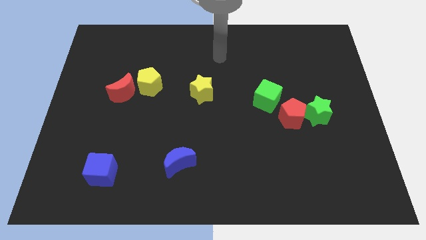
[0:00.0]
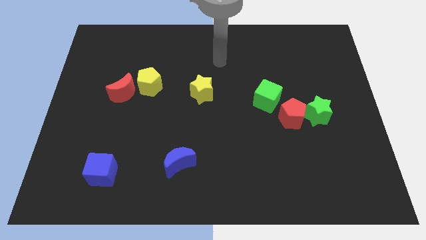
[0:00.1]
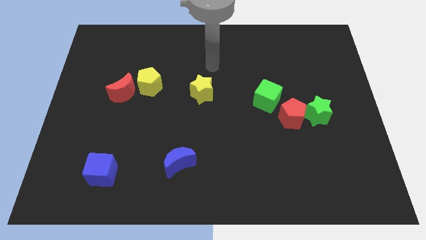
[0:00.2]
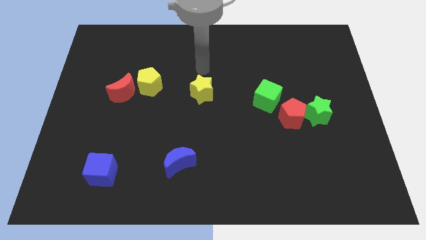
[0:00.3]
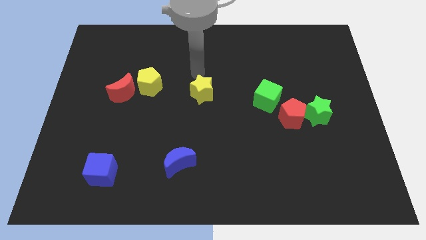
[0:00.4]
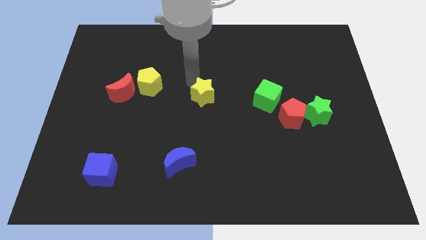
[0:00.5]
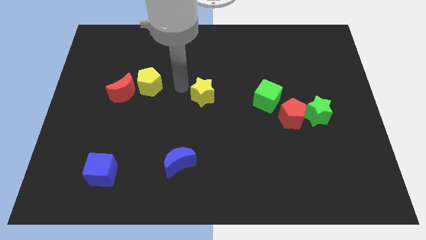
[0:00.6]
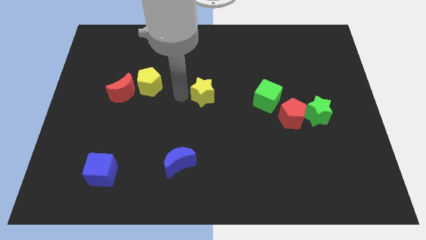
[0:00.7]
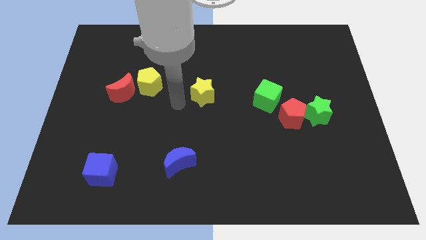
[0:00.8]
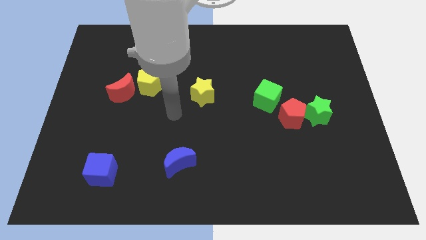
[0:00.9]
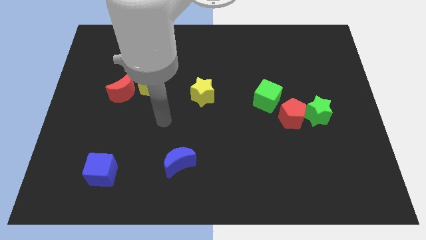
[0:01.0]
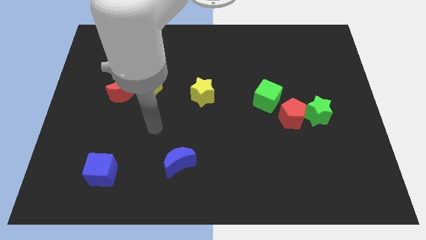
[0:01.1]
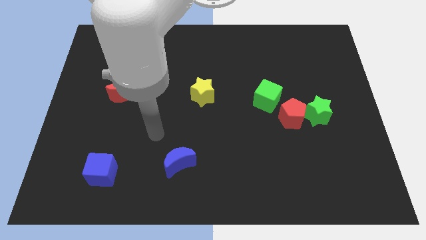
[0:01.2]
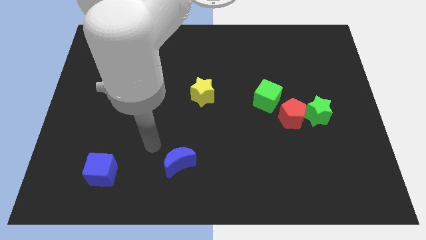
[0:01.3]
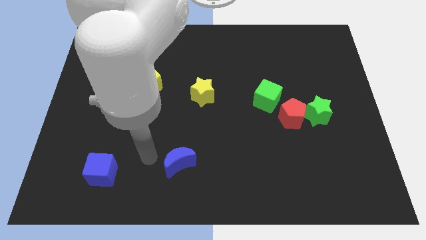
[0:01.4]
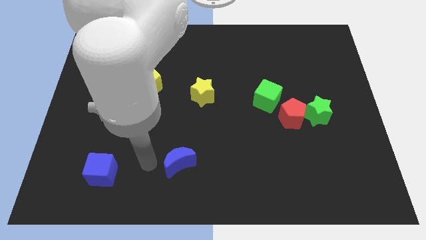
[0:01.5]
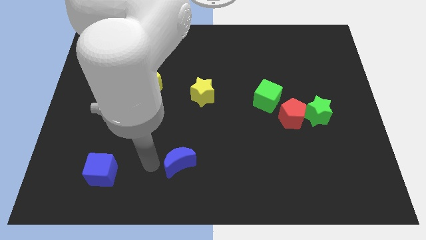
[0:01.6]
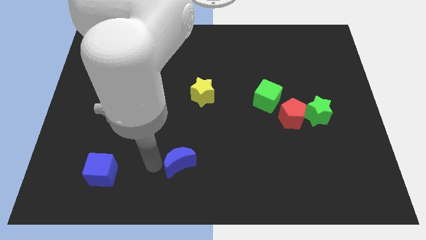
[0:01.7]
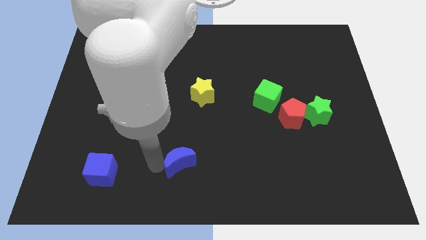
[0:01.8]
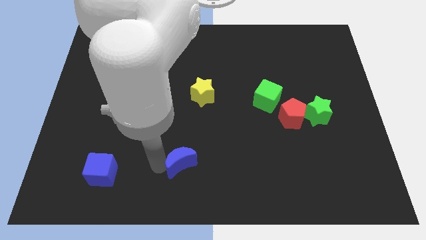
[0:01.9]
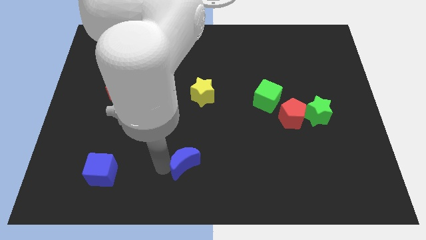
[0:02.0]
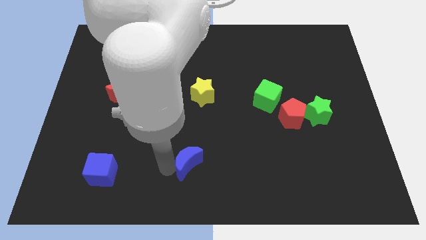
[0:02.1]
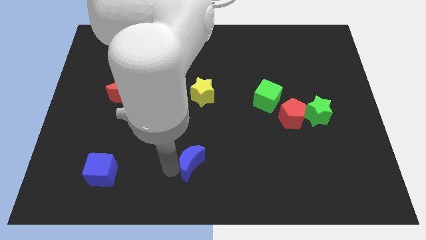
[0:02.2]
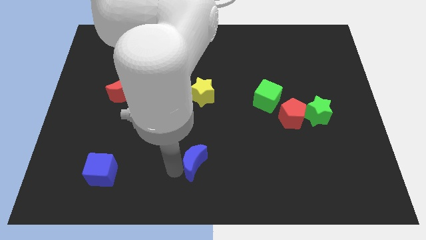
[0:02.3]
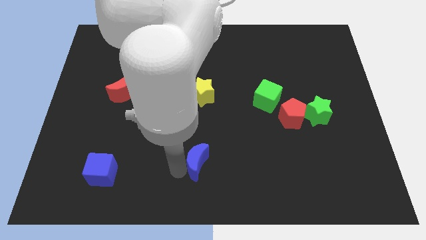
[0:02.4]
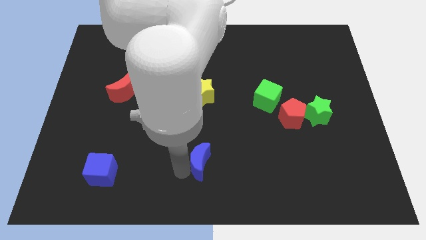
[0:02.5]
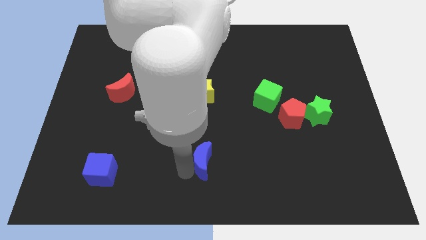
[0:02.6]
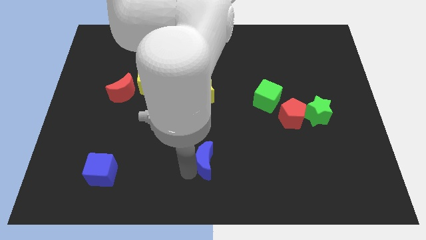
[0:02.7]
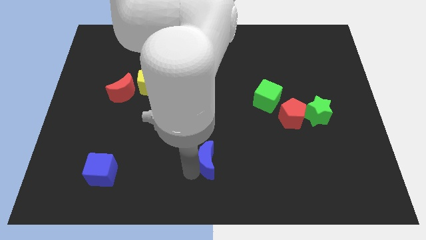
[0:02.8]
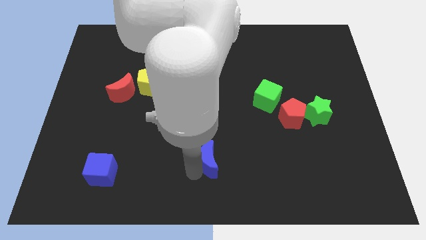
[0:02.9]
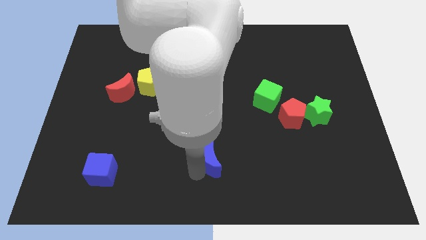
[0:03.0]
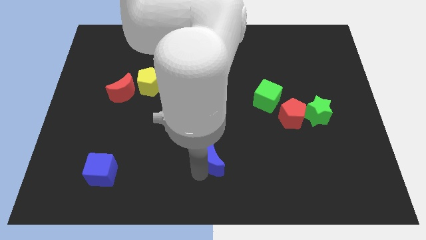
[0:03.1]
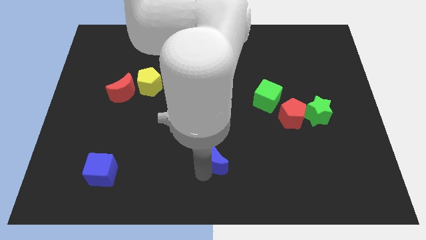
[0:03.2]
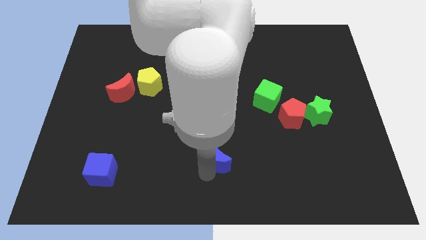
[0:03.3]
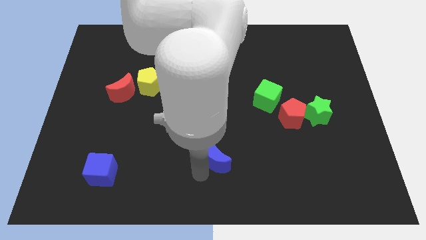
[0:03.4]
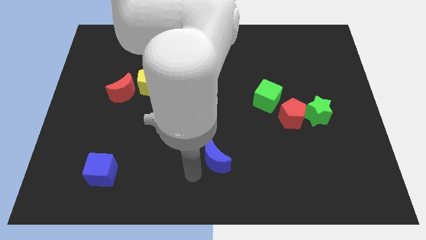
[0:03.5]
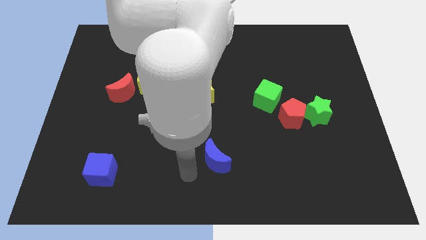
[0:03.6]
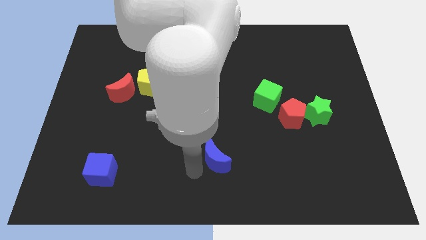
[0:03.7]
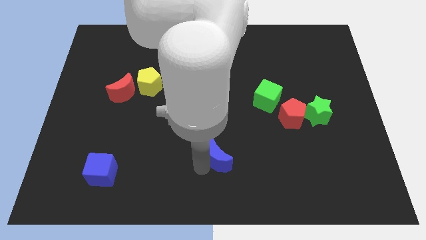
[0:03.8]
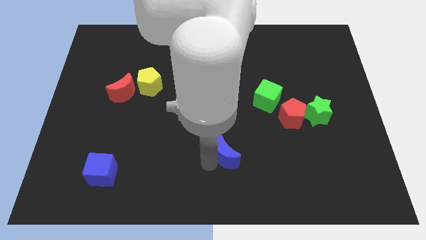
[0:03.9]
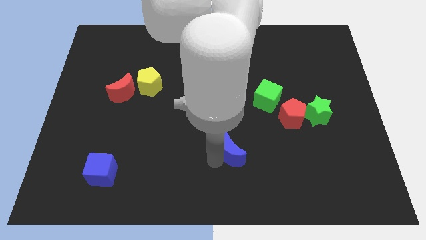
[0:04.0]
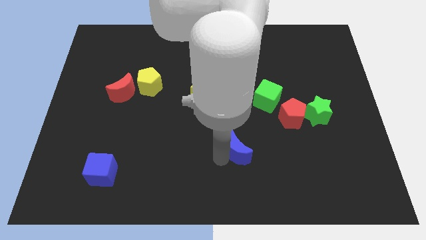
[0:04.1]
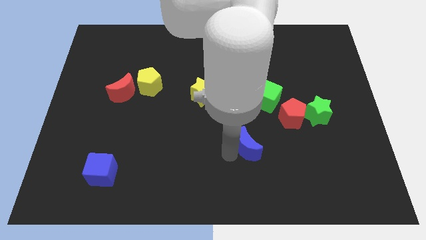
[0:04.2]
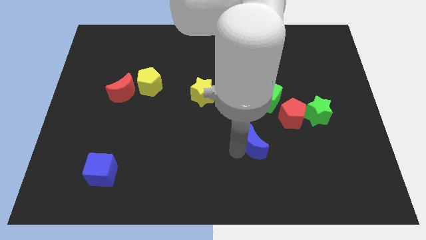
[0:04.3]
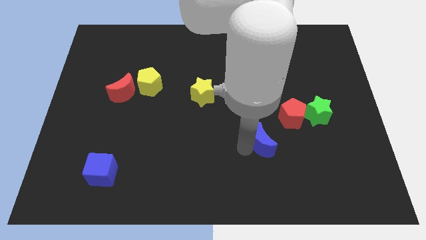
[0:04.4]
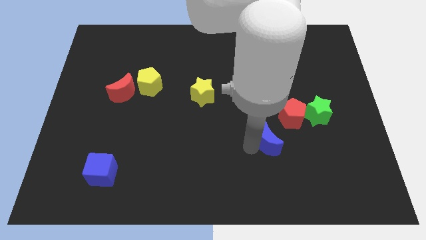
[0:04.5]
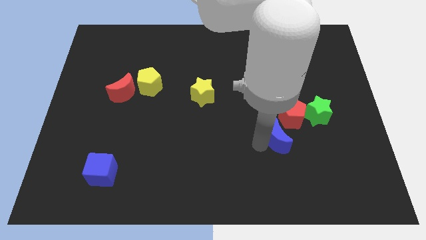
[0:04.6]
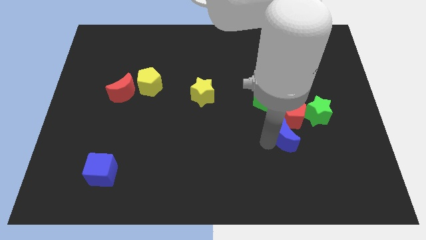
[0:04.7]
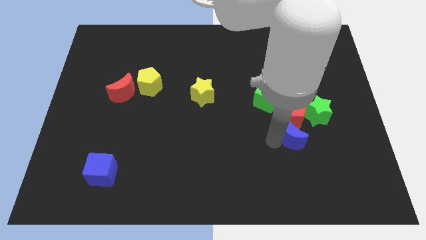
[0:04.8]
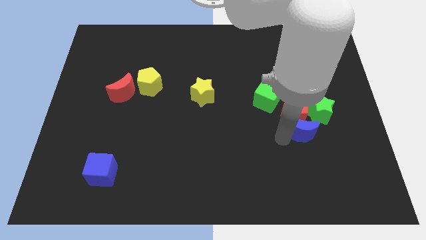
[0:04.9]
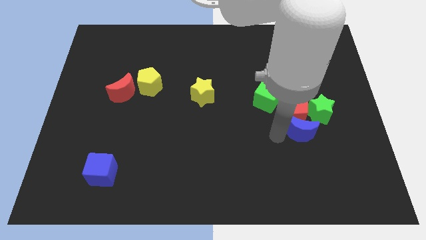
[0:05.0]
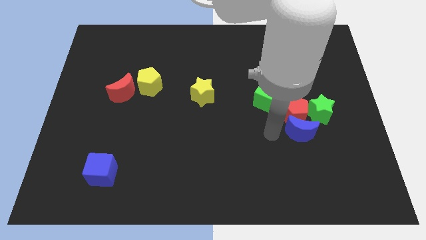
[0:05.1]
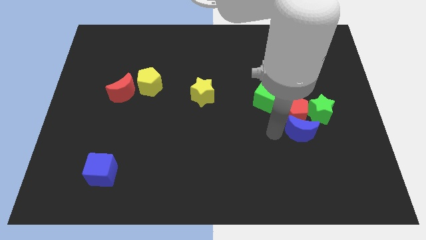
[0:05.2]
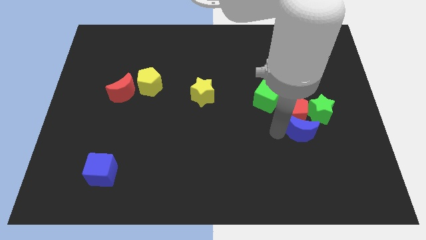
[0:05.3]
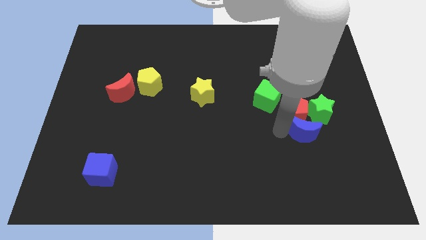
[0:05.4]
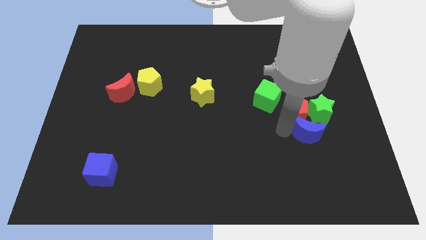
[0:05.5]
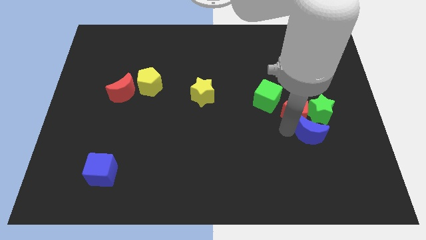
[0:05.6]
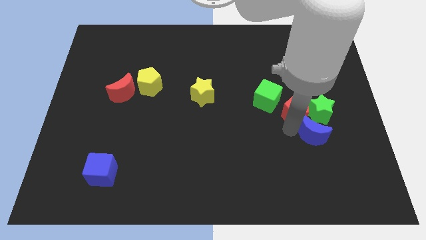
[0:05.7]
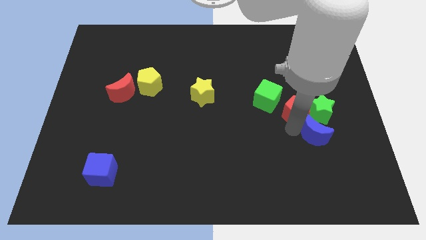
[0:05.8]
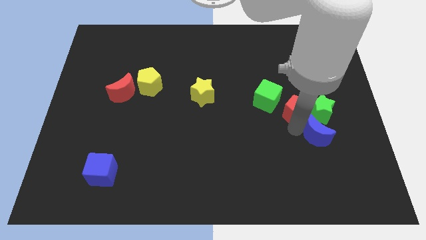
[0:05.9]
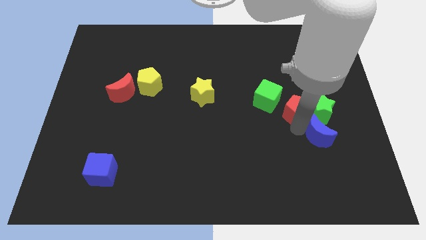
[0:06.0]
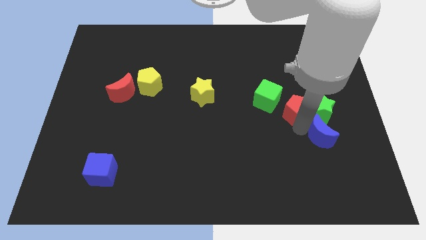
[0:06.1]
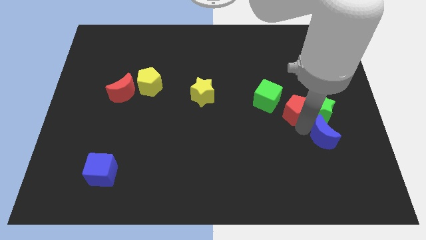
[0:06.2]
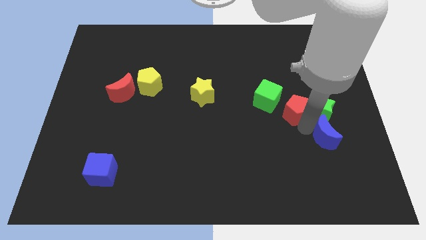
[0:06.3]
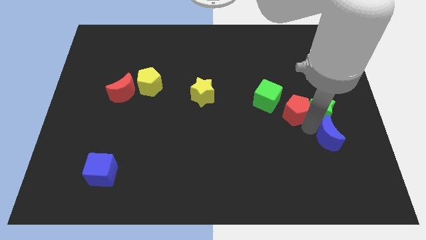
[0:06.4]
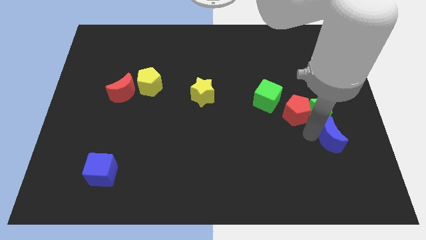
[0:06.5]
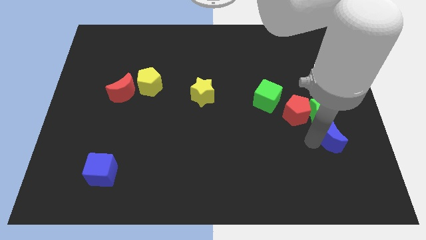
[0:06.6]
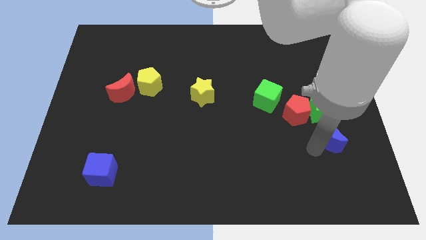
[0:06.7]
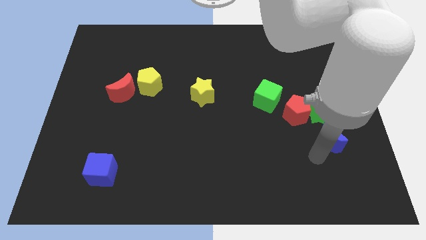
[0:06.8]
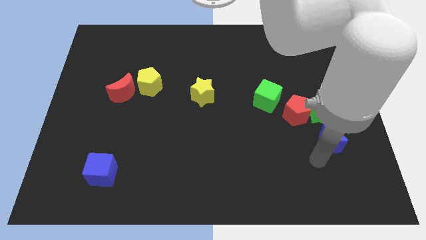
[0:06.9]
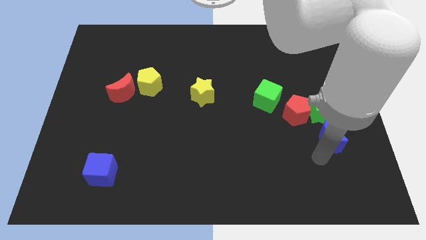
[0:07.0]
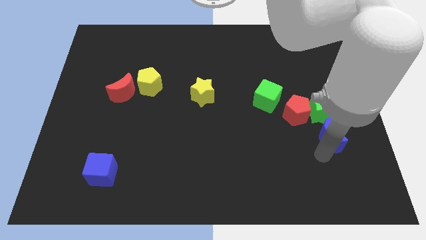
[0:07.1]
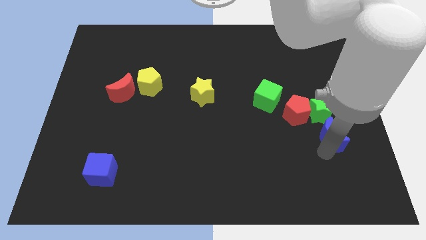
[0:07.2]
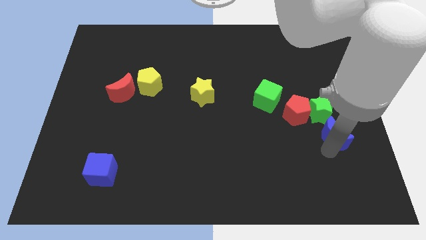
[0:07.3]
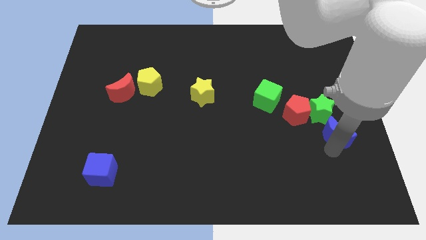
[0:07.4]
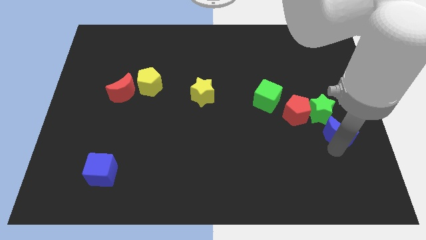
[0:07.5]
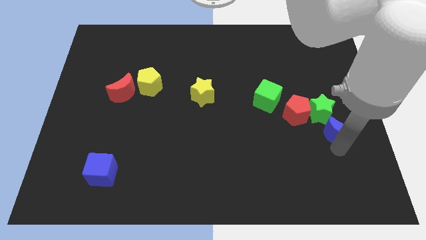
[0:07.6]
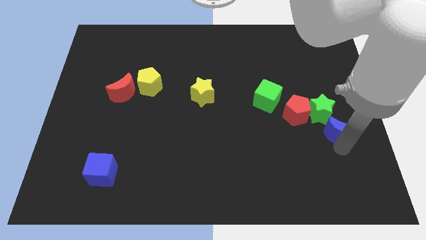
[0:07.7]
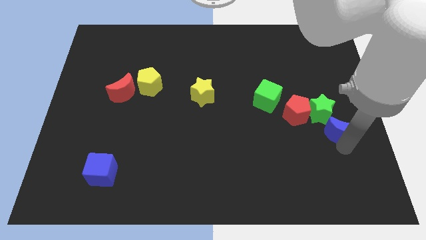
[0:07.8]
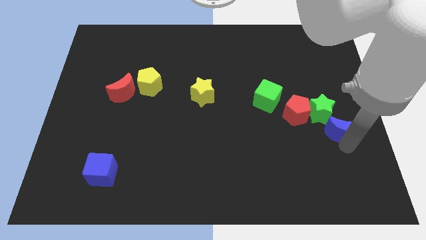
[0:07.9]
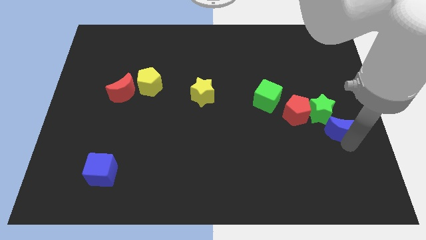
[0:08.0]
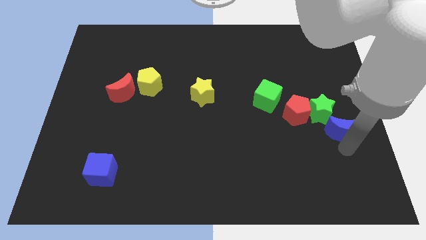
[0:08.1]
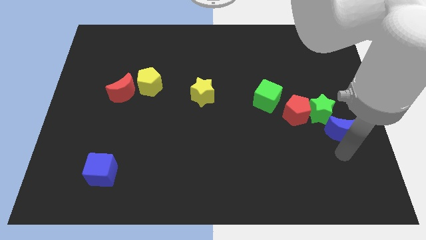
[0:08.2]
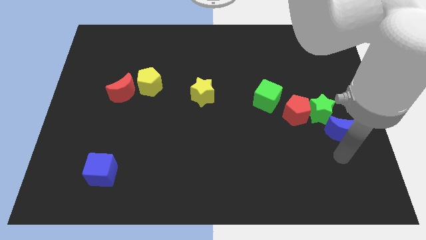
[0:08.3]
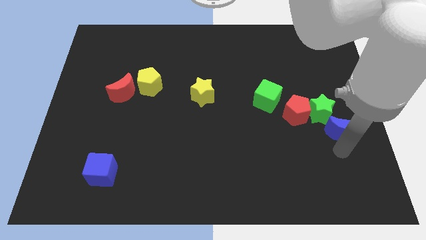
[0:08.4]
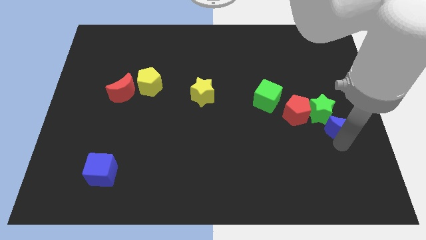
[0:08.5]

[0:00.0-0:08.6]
push the blue moon just right of the red pentagon
